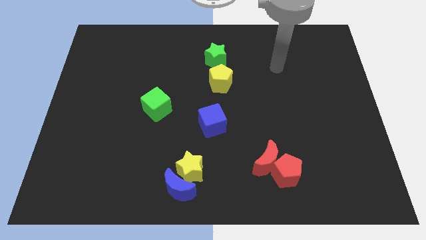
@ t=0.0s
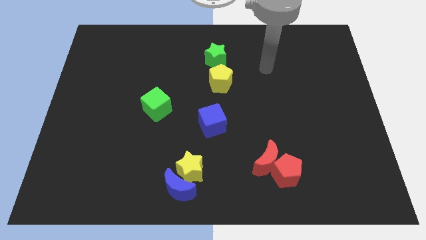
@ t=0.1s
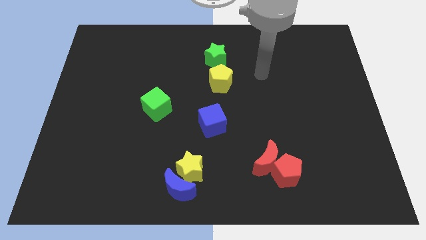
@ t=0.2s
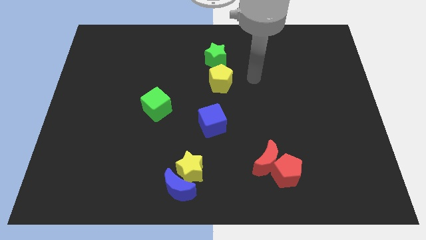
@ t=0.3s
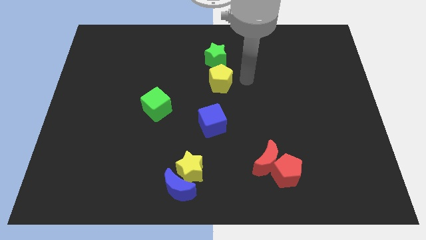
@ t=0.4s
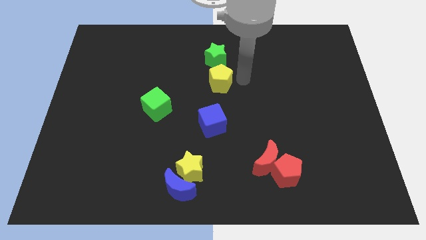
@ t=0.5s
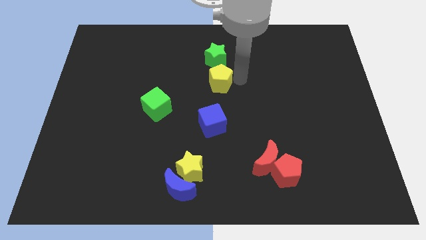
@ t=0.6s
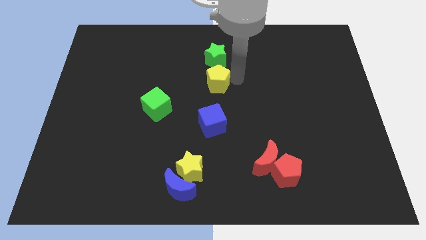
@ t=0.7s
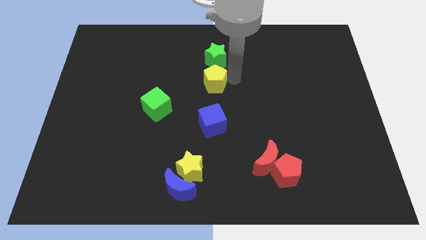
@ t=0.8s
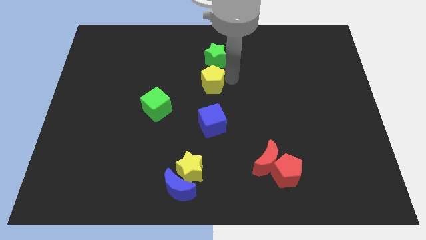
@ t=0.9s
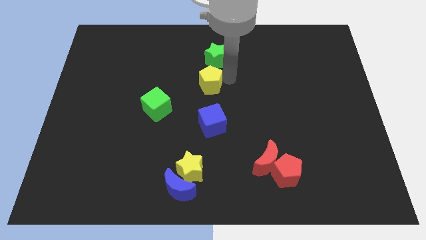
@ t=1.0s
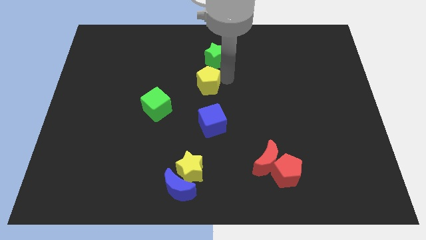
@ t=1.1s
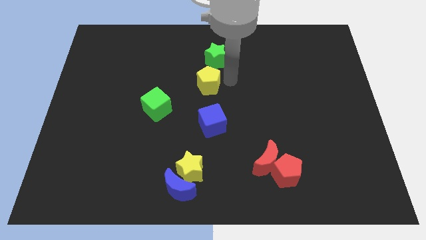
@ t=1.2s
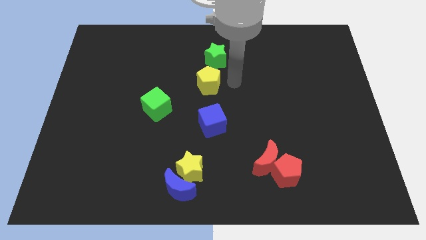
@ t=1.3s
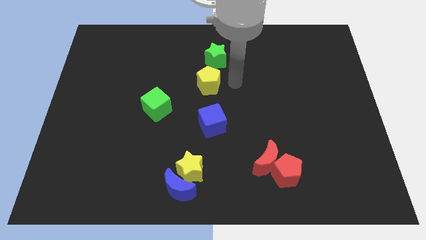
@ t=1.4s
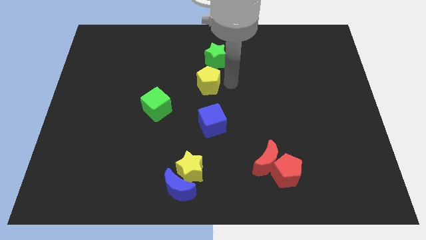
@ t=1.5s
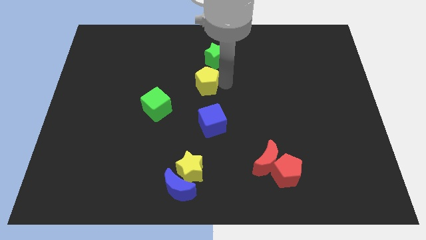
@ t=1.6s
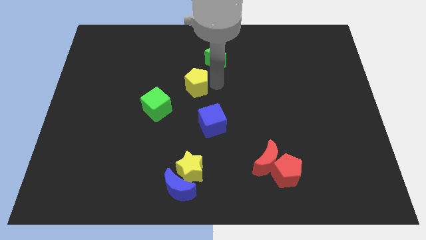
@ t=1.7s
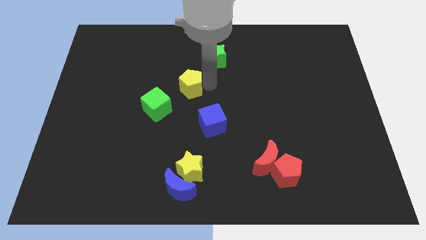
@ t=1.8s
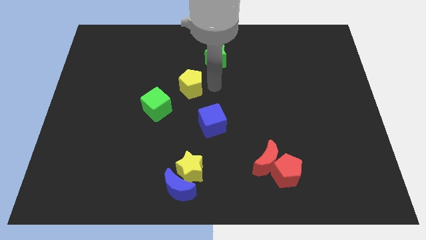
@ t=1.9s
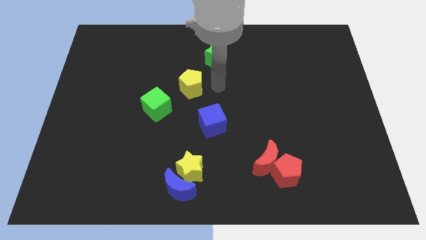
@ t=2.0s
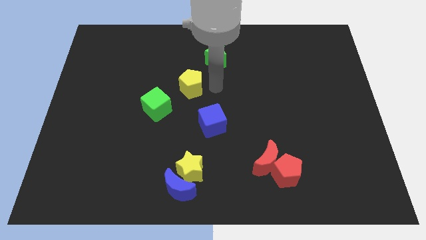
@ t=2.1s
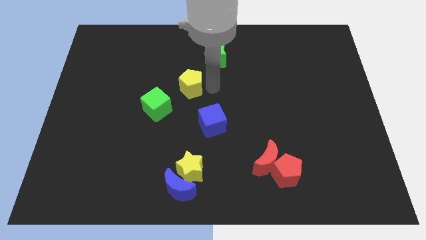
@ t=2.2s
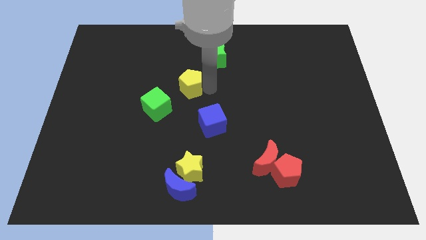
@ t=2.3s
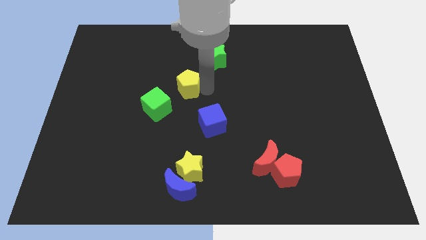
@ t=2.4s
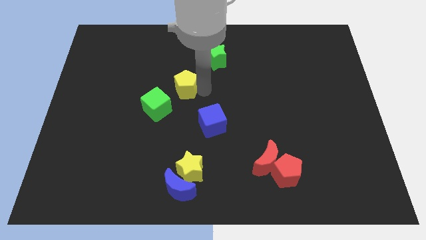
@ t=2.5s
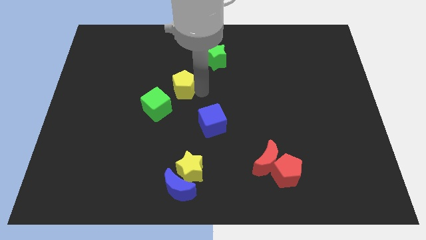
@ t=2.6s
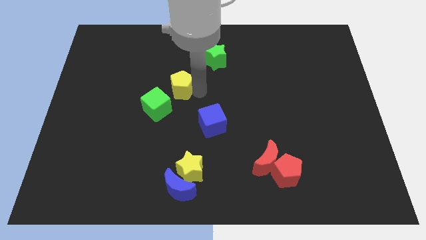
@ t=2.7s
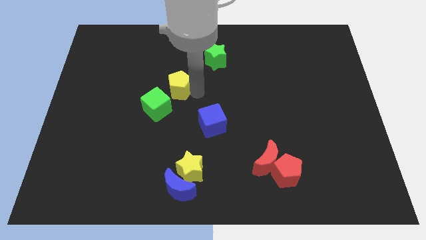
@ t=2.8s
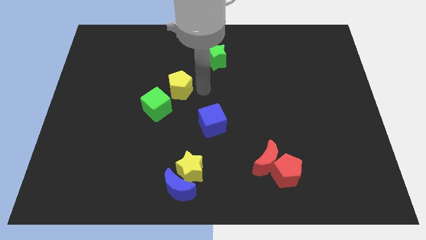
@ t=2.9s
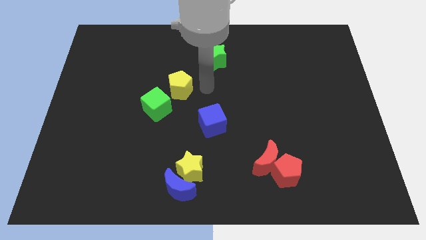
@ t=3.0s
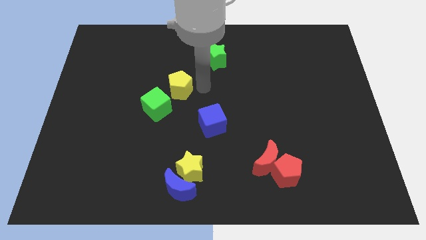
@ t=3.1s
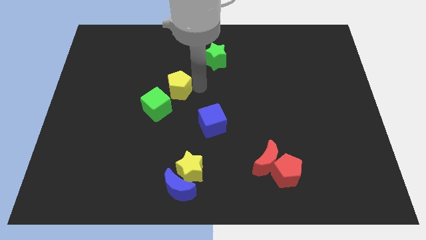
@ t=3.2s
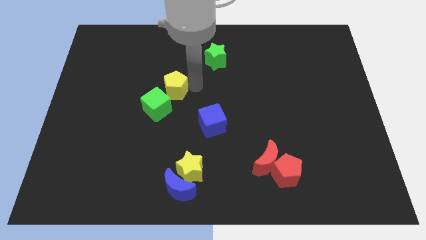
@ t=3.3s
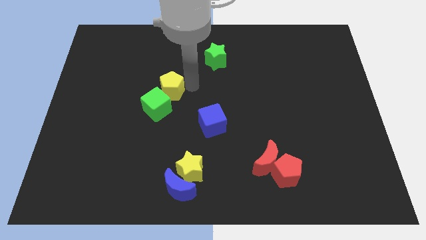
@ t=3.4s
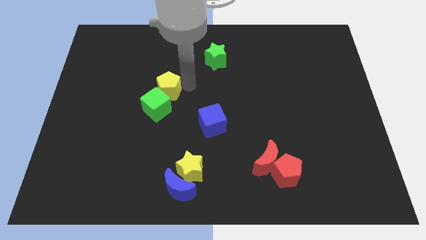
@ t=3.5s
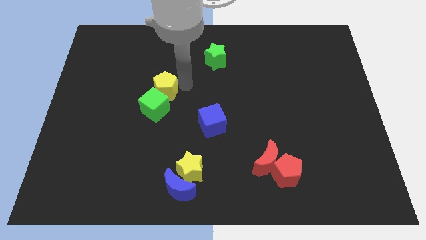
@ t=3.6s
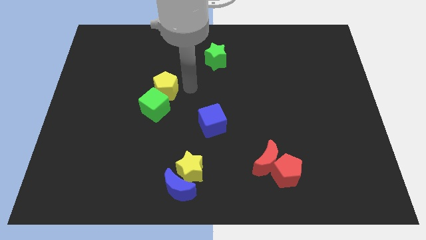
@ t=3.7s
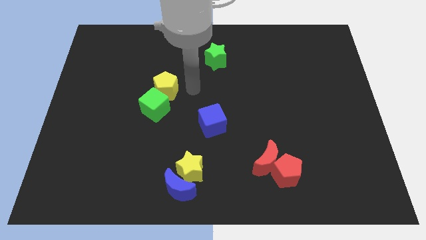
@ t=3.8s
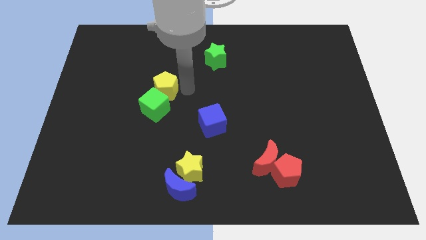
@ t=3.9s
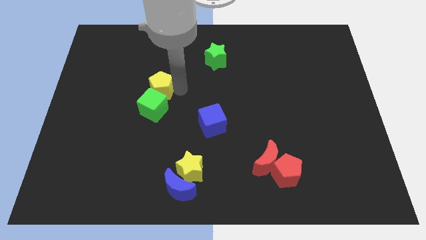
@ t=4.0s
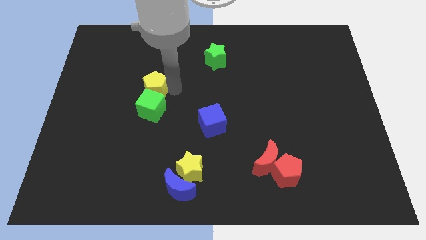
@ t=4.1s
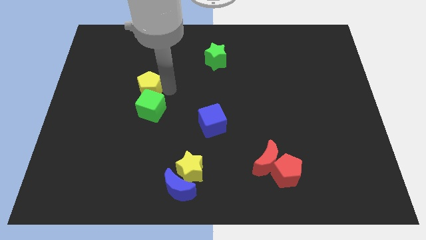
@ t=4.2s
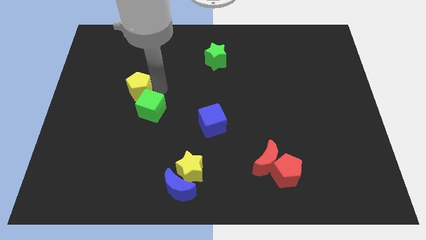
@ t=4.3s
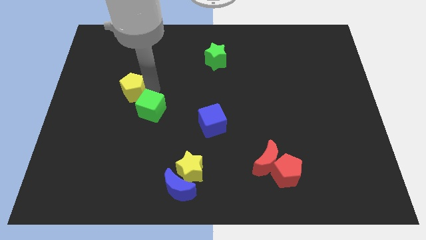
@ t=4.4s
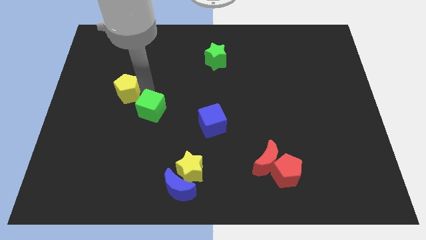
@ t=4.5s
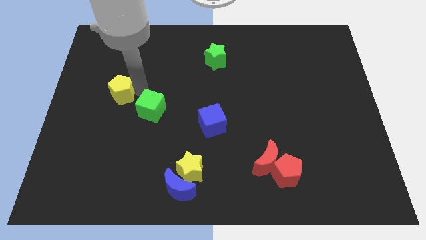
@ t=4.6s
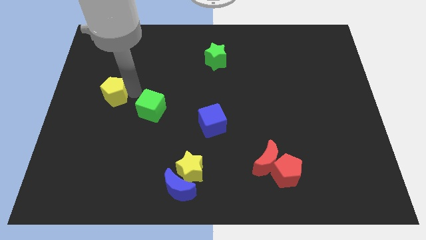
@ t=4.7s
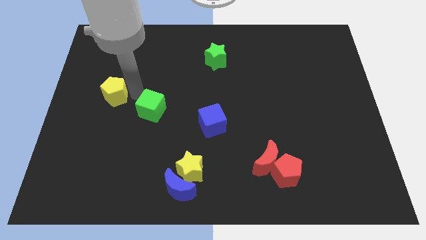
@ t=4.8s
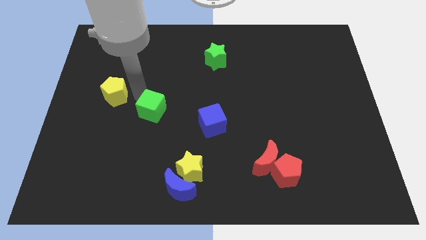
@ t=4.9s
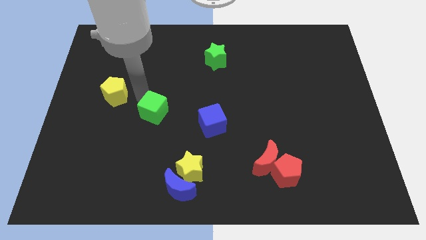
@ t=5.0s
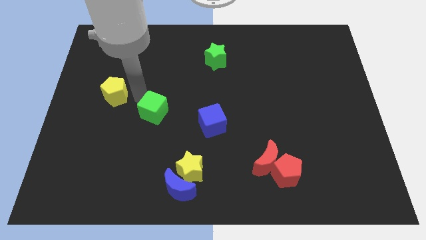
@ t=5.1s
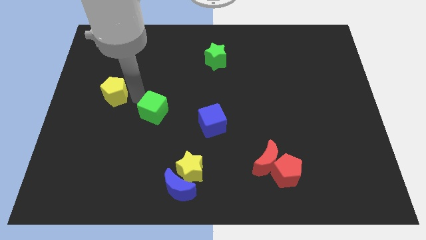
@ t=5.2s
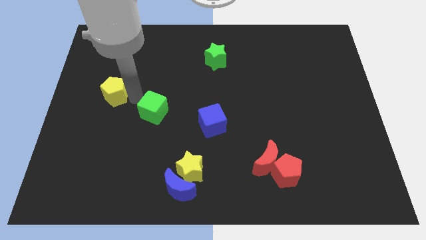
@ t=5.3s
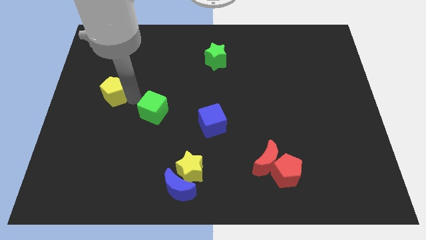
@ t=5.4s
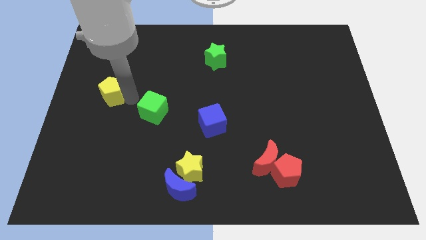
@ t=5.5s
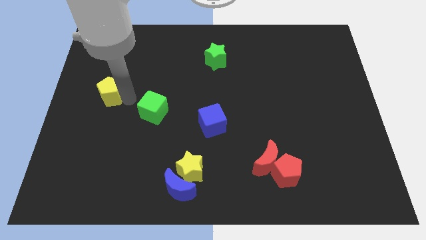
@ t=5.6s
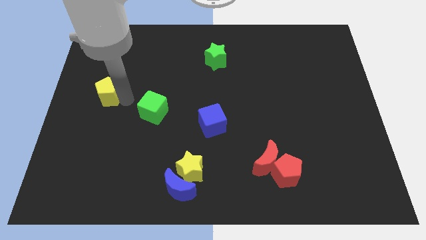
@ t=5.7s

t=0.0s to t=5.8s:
slide the yellow pentagon to the left side of the board

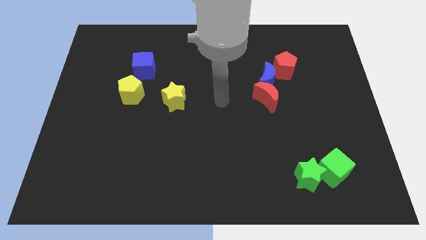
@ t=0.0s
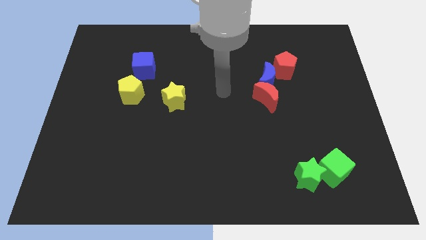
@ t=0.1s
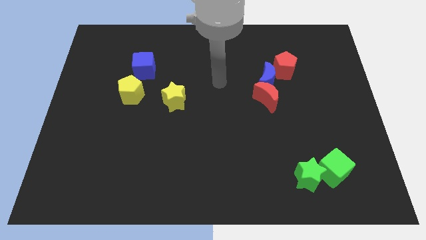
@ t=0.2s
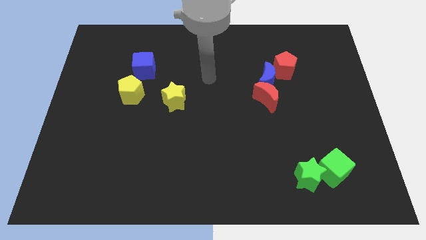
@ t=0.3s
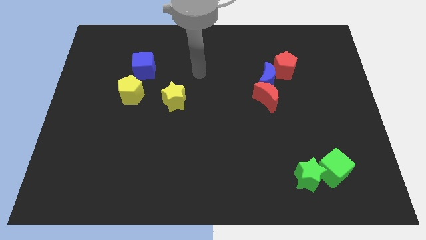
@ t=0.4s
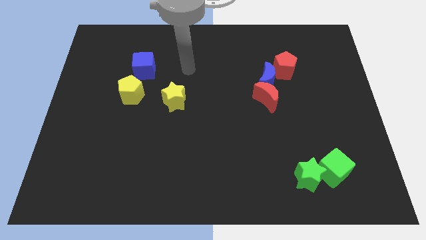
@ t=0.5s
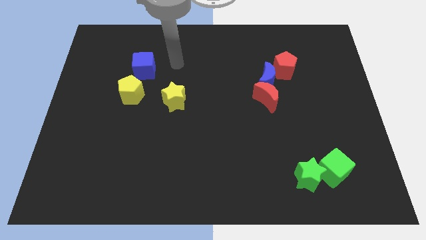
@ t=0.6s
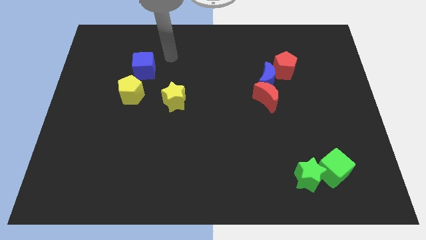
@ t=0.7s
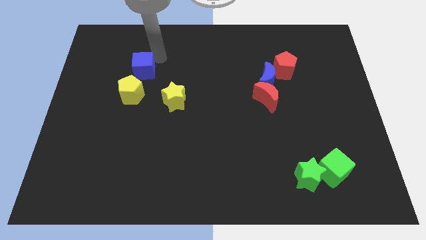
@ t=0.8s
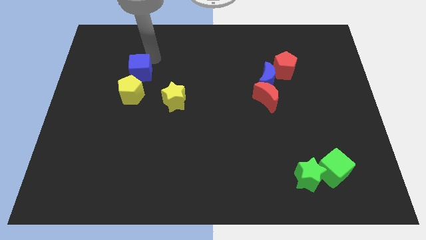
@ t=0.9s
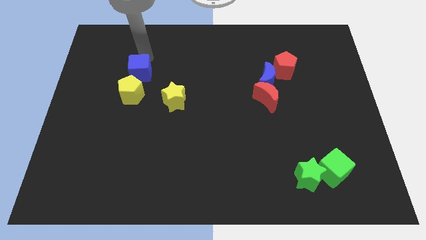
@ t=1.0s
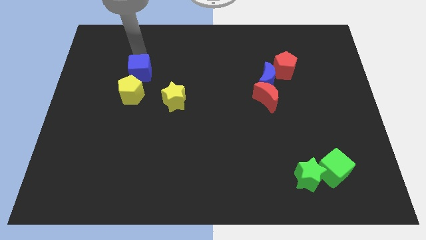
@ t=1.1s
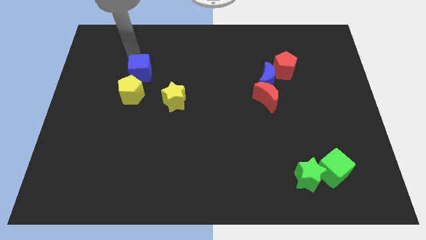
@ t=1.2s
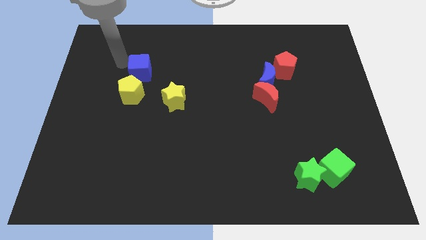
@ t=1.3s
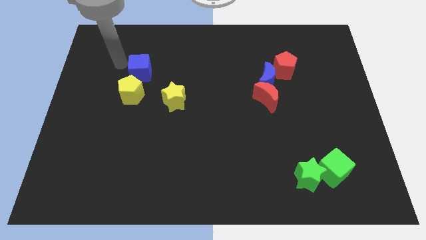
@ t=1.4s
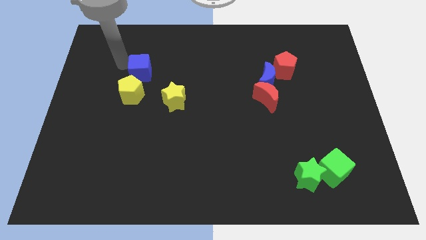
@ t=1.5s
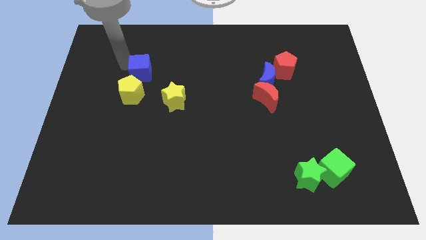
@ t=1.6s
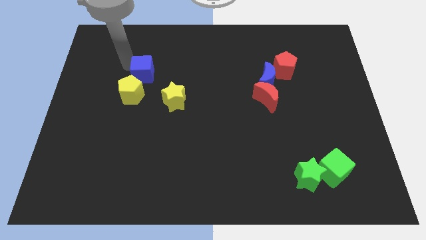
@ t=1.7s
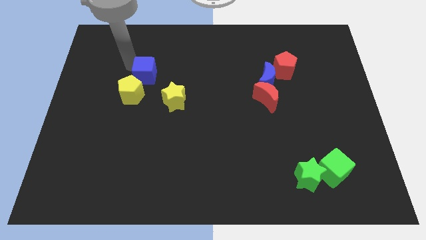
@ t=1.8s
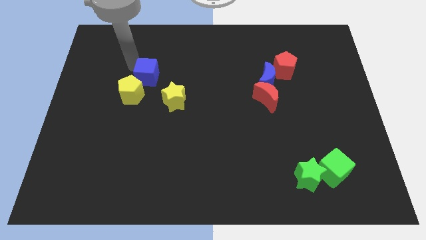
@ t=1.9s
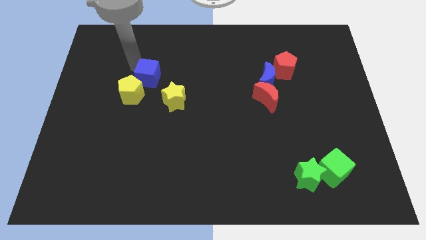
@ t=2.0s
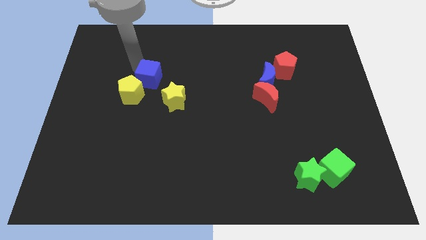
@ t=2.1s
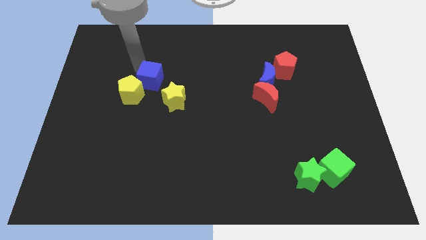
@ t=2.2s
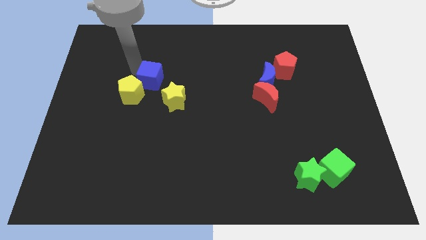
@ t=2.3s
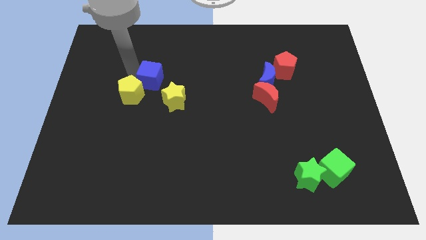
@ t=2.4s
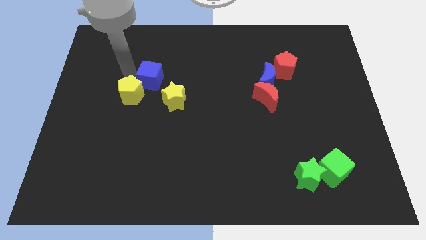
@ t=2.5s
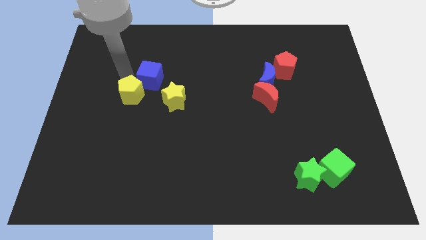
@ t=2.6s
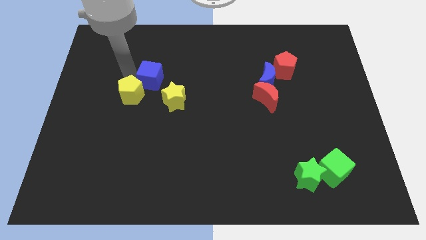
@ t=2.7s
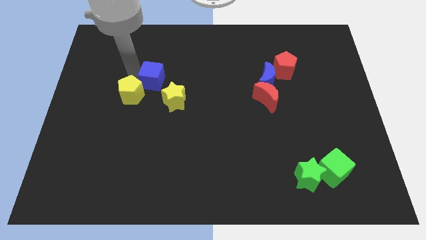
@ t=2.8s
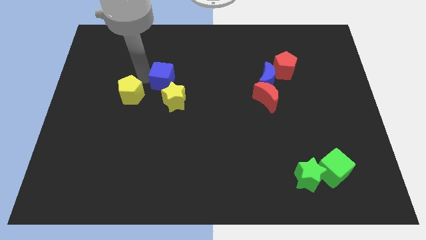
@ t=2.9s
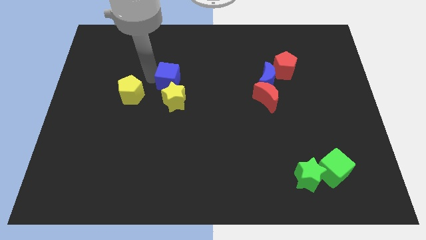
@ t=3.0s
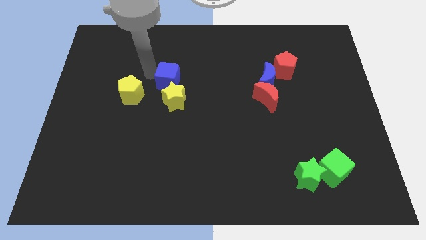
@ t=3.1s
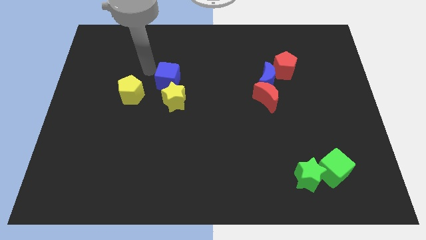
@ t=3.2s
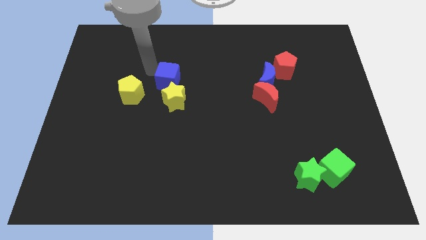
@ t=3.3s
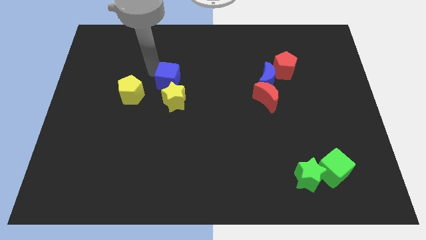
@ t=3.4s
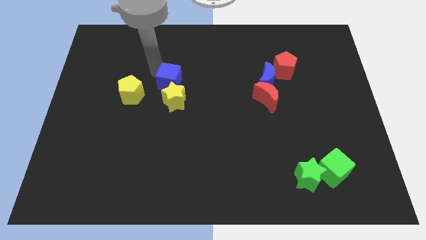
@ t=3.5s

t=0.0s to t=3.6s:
move the blue cube to the center
